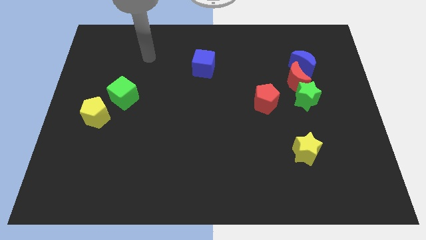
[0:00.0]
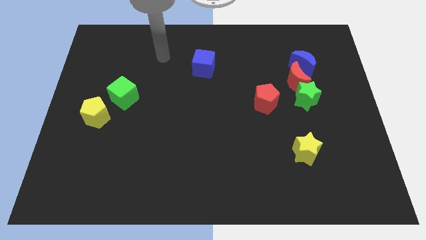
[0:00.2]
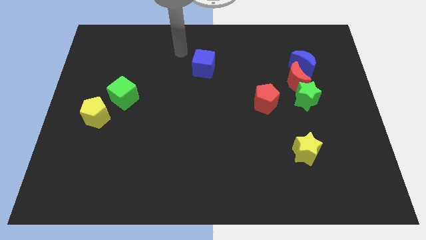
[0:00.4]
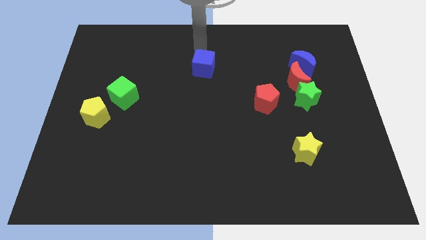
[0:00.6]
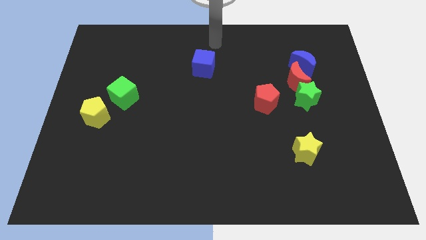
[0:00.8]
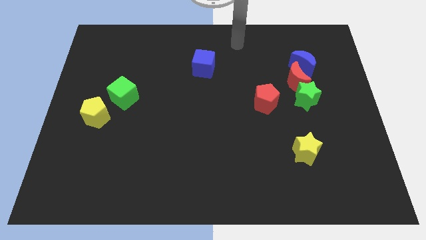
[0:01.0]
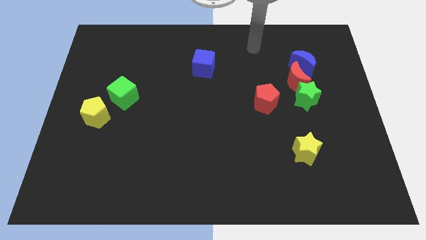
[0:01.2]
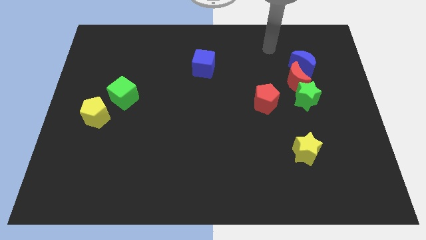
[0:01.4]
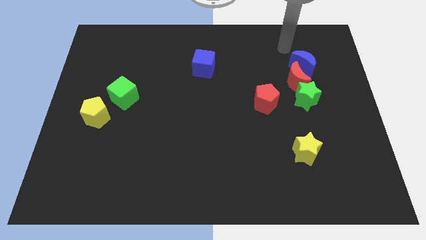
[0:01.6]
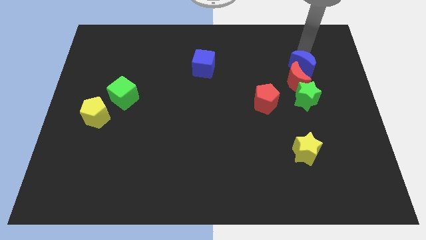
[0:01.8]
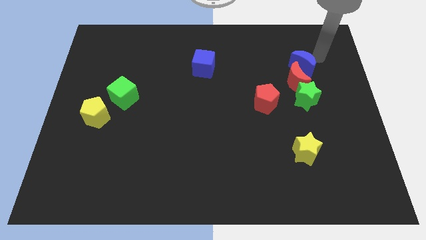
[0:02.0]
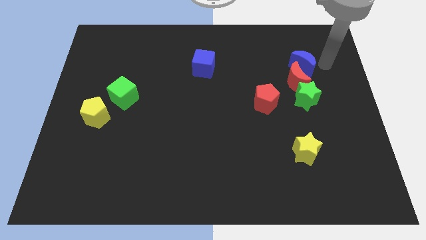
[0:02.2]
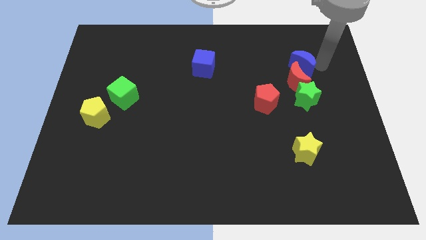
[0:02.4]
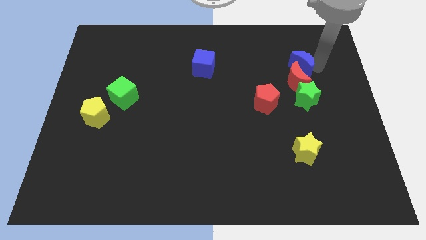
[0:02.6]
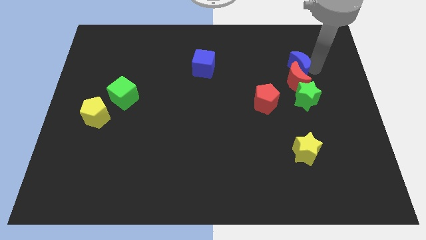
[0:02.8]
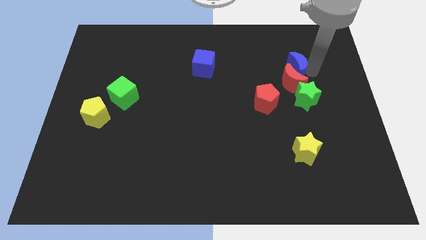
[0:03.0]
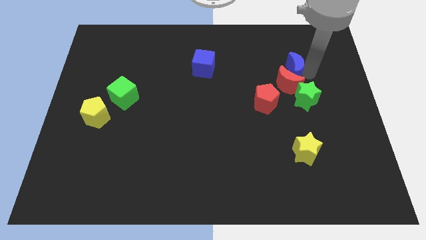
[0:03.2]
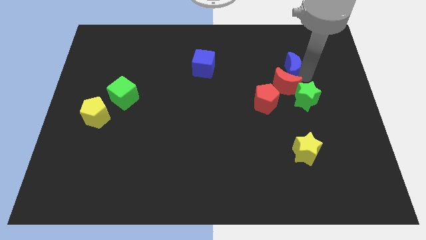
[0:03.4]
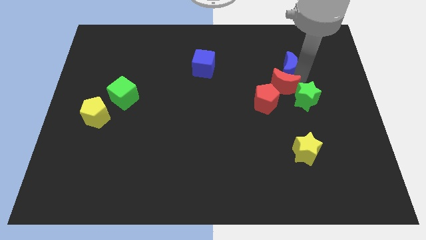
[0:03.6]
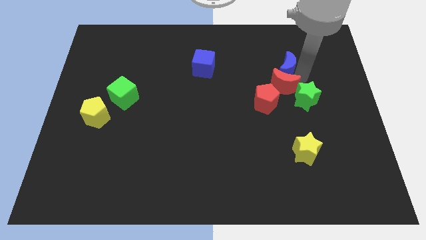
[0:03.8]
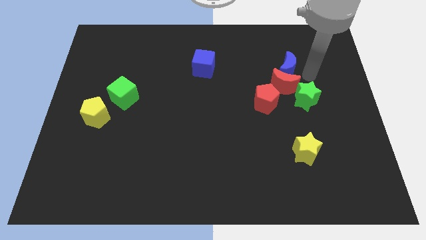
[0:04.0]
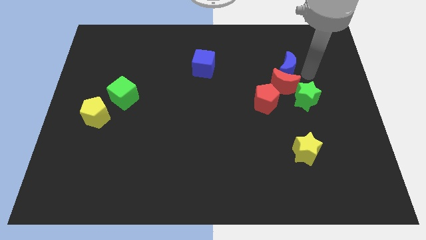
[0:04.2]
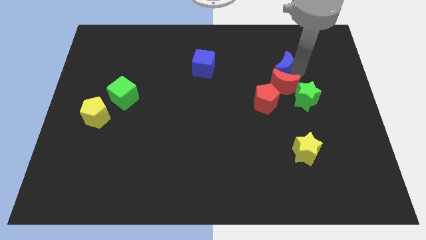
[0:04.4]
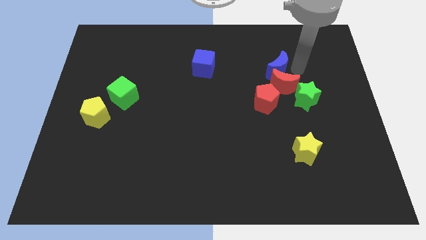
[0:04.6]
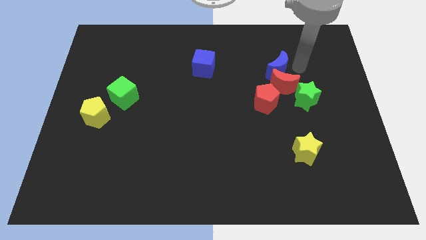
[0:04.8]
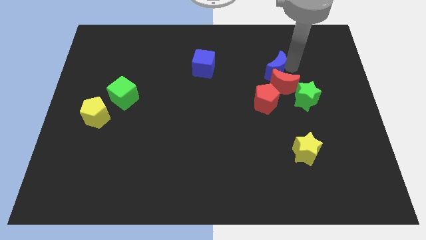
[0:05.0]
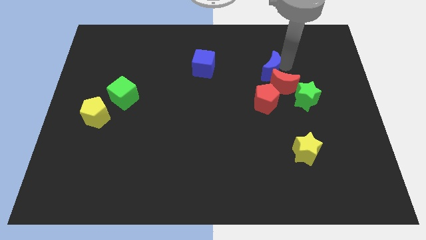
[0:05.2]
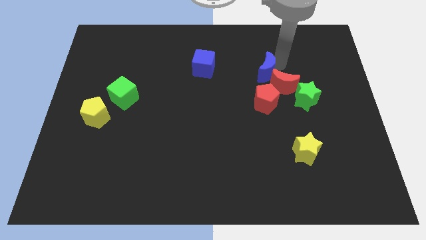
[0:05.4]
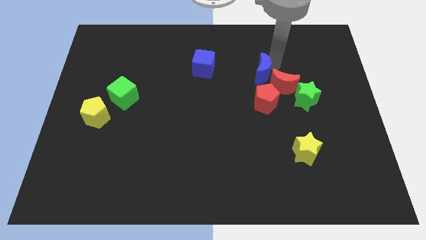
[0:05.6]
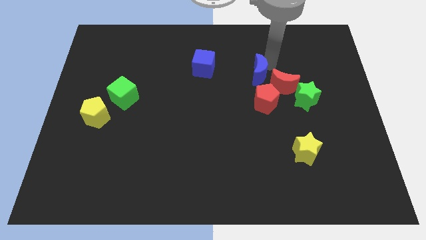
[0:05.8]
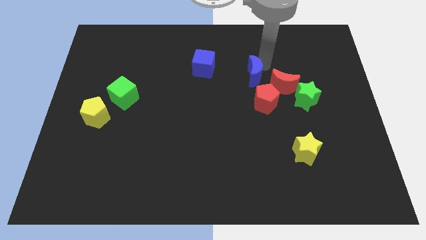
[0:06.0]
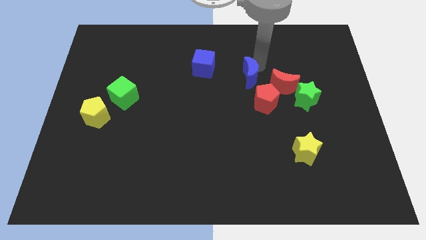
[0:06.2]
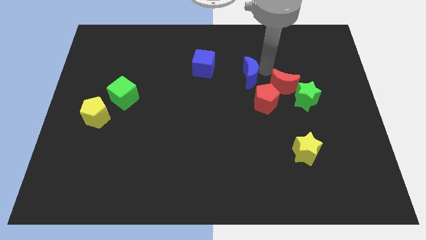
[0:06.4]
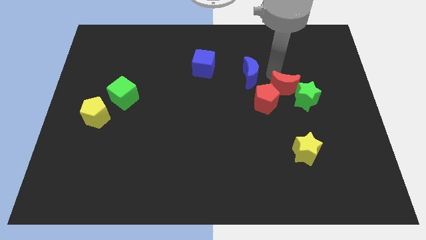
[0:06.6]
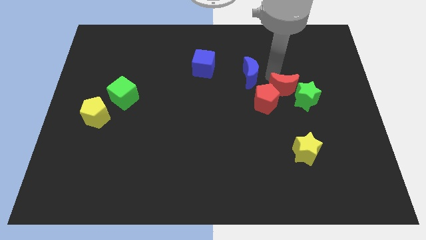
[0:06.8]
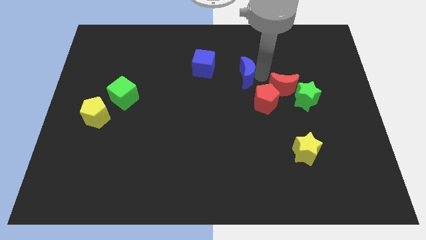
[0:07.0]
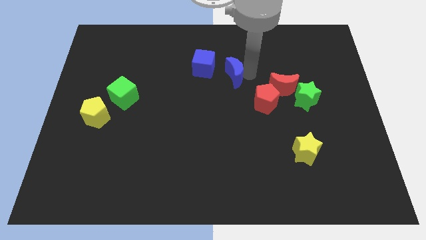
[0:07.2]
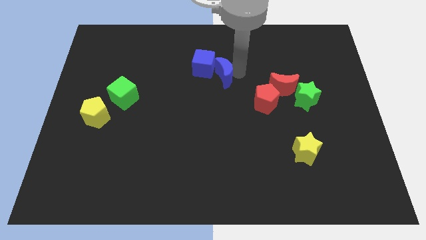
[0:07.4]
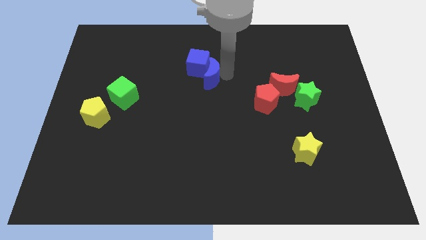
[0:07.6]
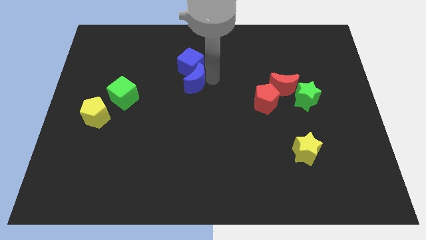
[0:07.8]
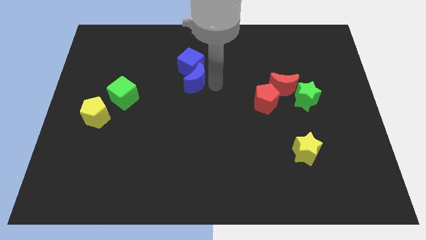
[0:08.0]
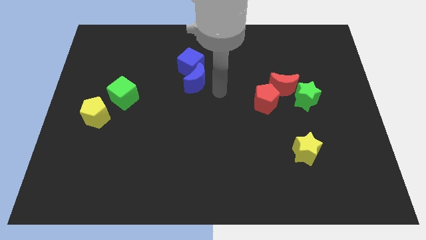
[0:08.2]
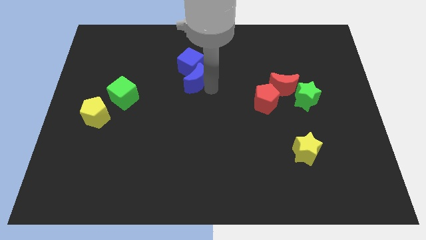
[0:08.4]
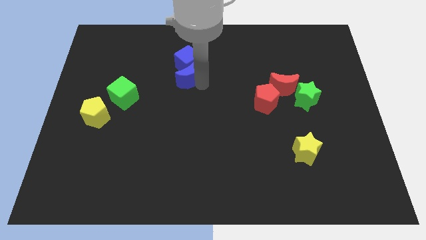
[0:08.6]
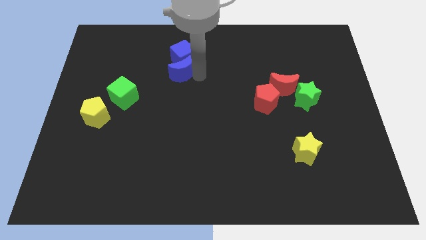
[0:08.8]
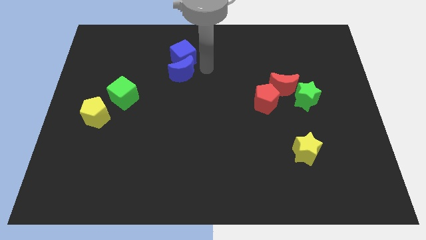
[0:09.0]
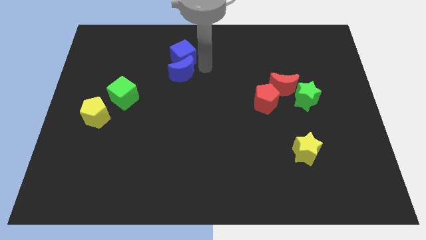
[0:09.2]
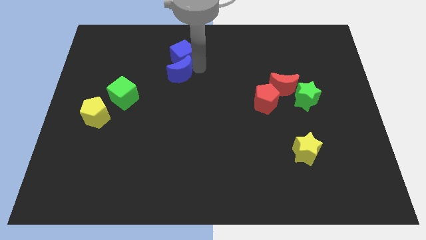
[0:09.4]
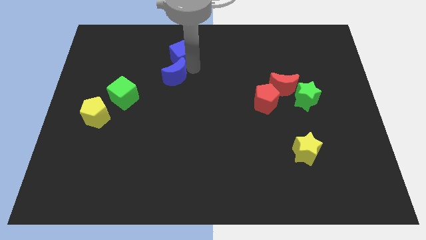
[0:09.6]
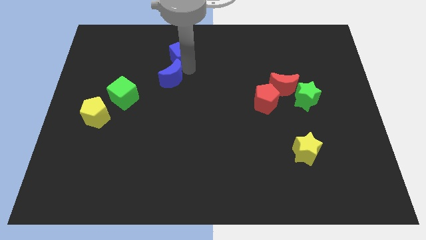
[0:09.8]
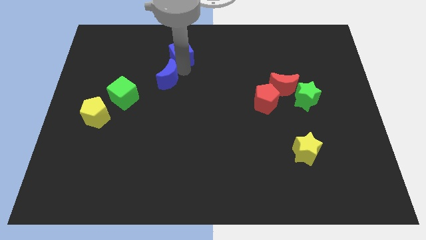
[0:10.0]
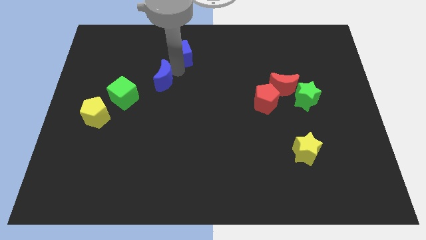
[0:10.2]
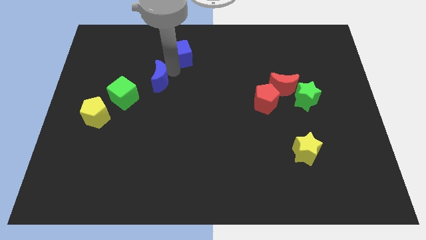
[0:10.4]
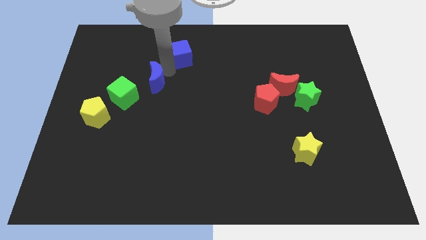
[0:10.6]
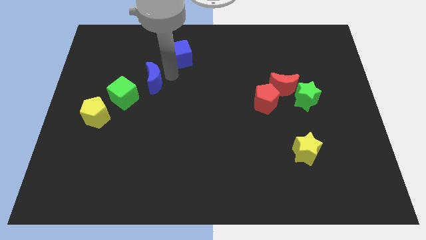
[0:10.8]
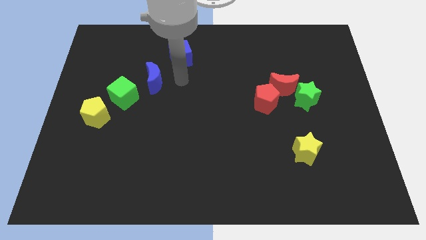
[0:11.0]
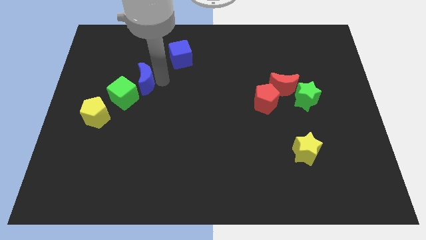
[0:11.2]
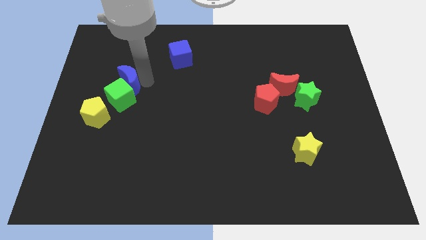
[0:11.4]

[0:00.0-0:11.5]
slide the blue moon to the top left of the green cube

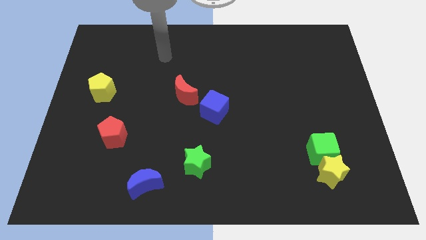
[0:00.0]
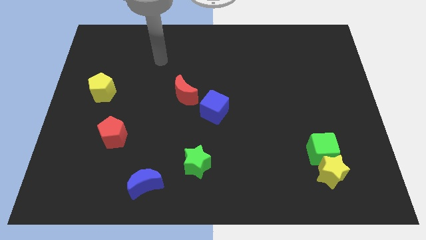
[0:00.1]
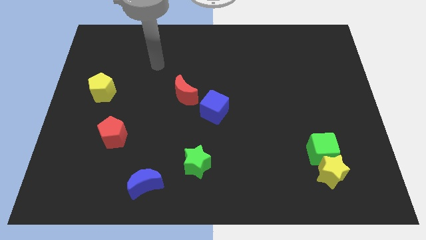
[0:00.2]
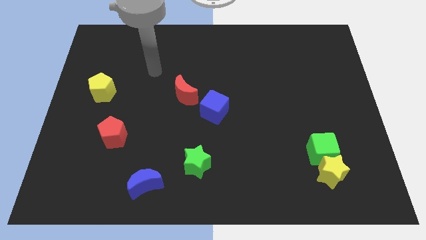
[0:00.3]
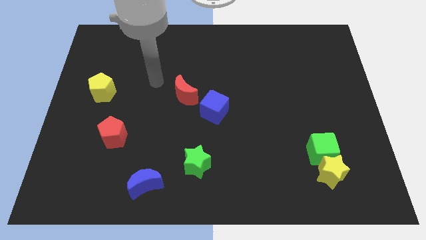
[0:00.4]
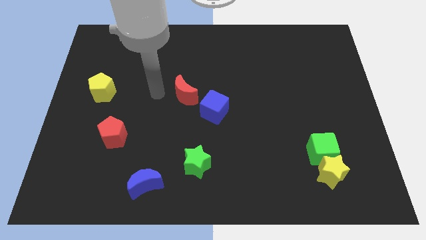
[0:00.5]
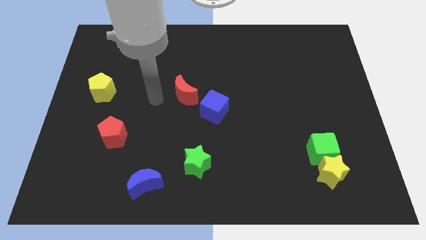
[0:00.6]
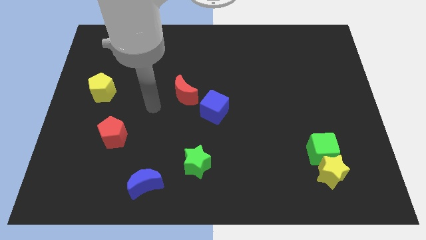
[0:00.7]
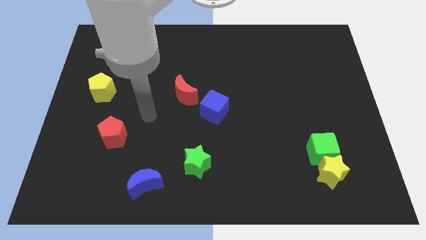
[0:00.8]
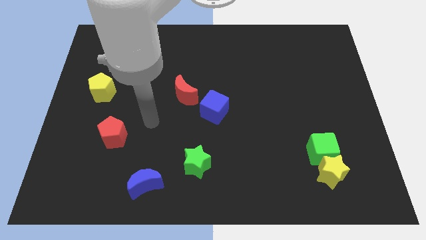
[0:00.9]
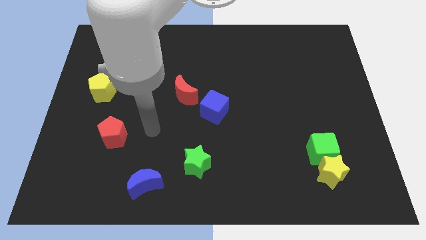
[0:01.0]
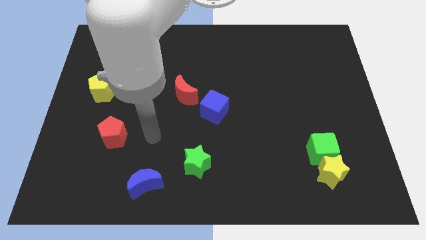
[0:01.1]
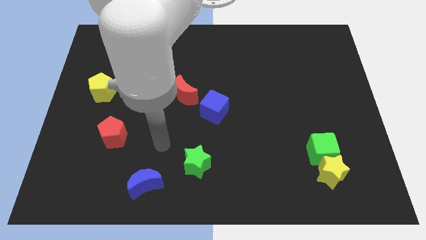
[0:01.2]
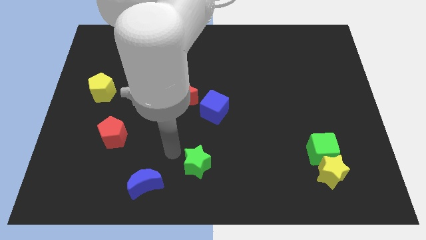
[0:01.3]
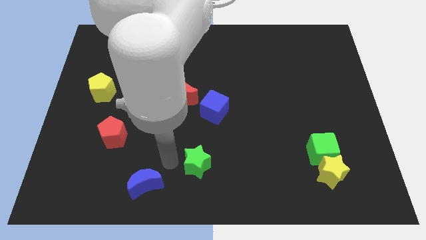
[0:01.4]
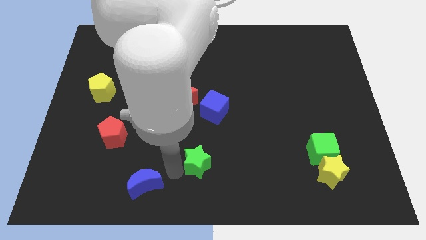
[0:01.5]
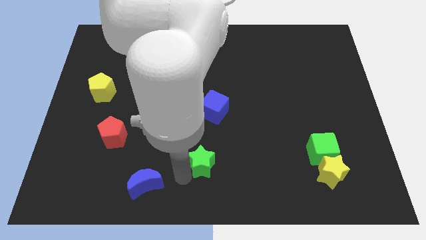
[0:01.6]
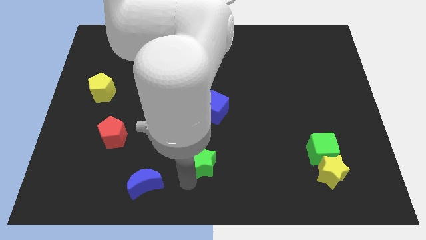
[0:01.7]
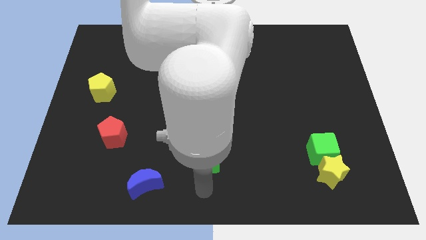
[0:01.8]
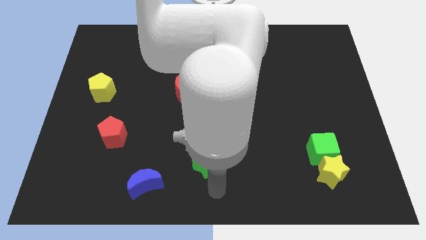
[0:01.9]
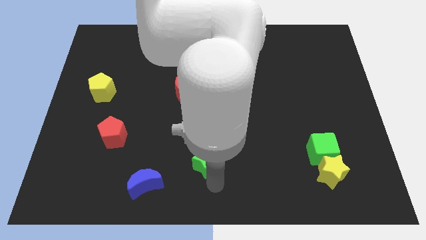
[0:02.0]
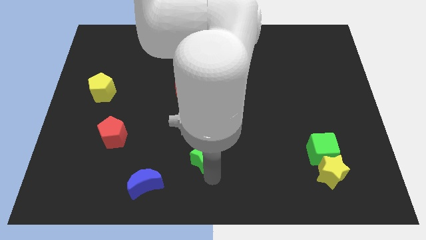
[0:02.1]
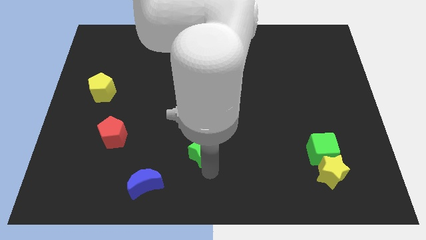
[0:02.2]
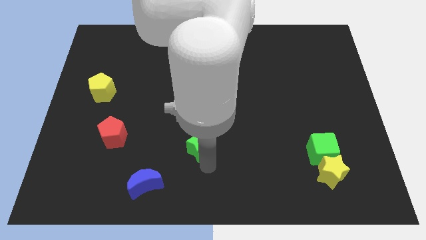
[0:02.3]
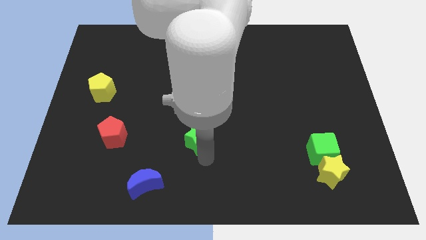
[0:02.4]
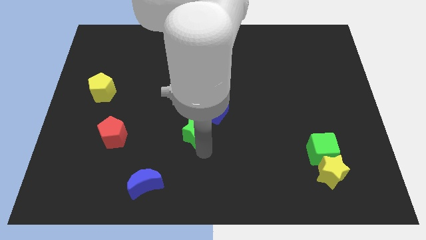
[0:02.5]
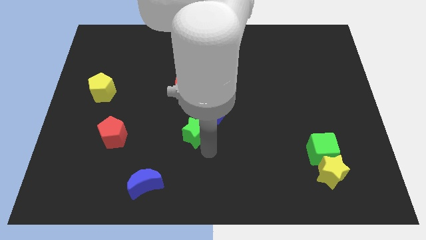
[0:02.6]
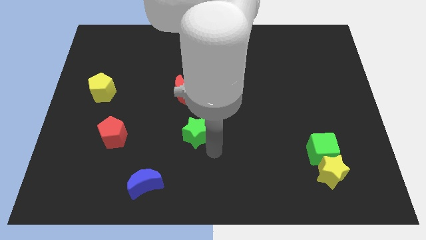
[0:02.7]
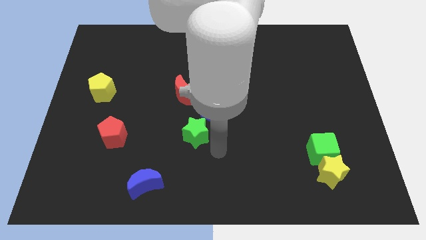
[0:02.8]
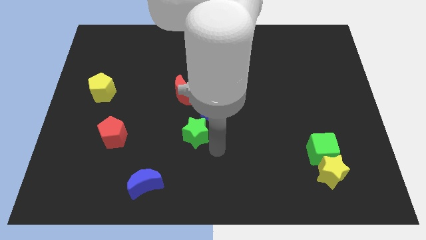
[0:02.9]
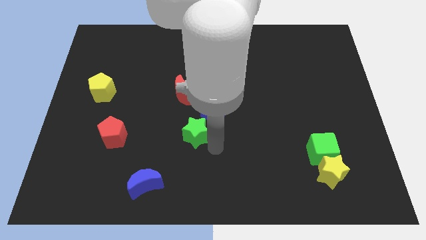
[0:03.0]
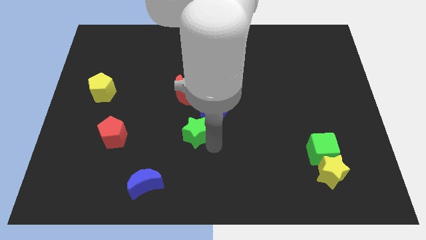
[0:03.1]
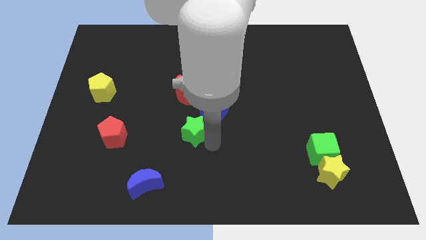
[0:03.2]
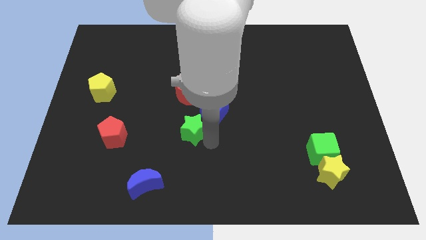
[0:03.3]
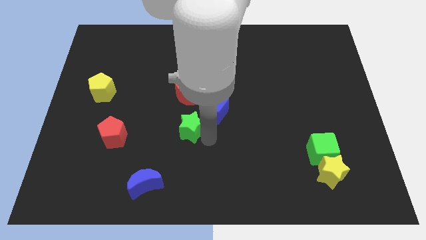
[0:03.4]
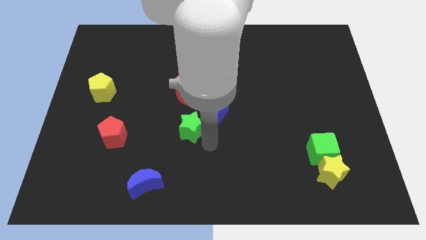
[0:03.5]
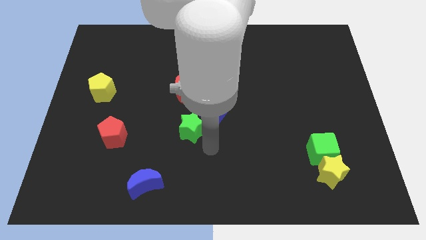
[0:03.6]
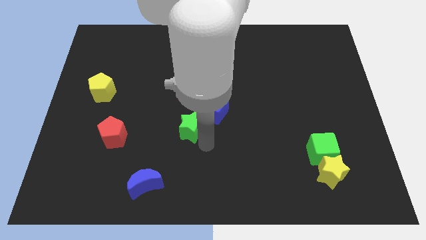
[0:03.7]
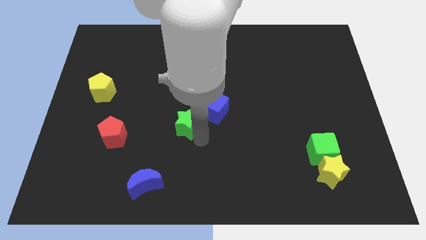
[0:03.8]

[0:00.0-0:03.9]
move the green star to the left of the blue cube
